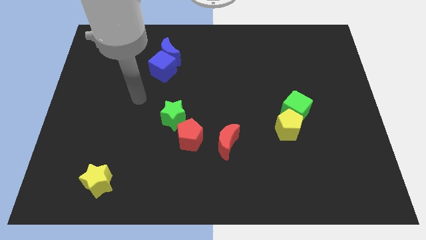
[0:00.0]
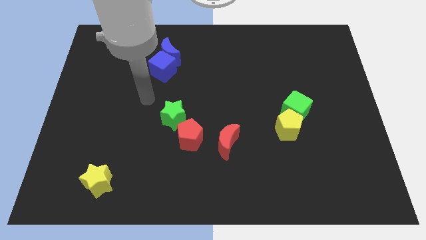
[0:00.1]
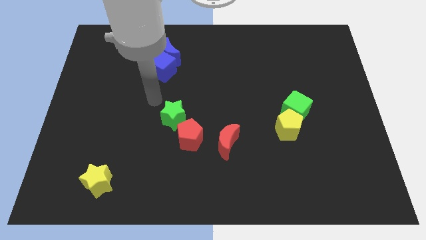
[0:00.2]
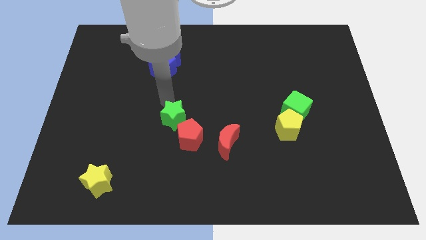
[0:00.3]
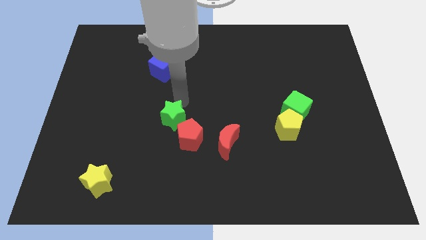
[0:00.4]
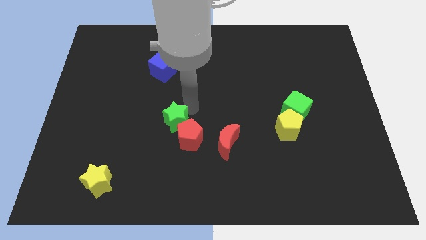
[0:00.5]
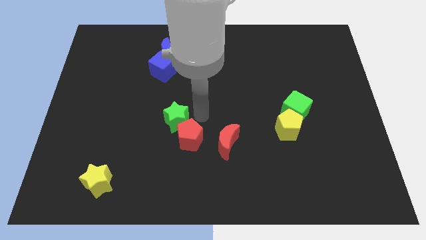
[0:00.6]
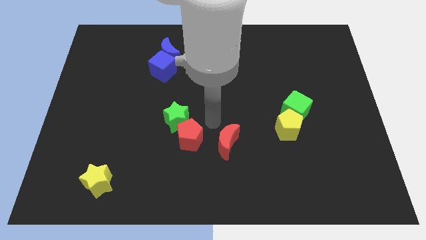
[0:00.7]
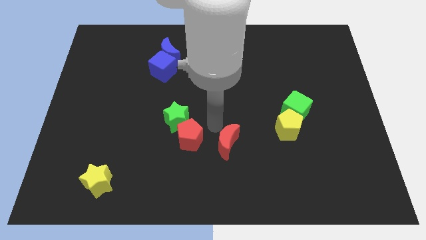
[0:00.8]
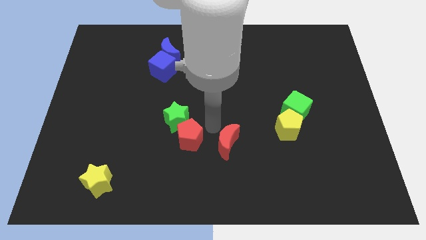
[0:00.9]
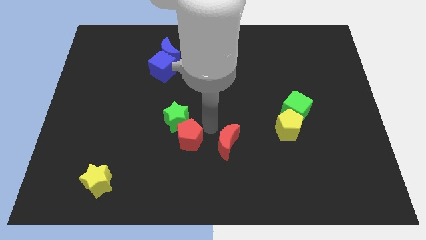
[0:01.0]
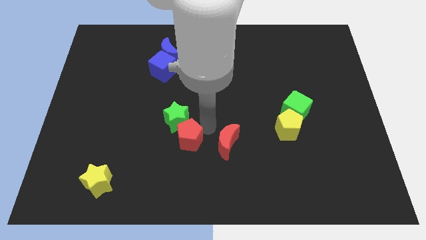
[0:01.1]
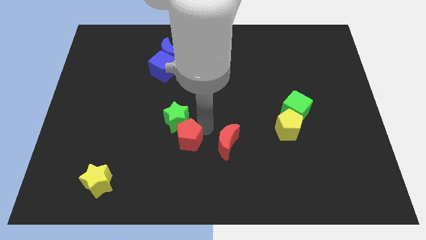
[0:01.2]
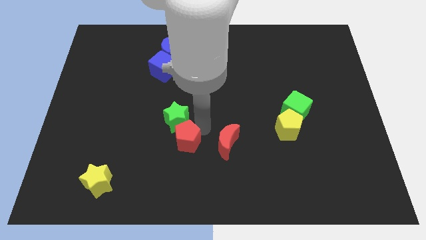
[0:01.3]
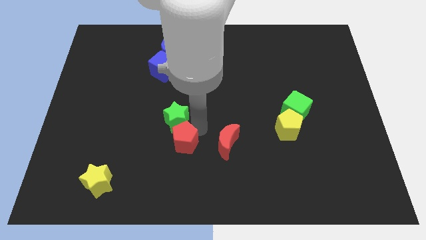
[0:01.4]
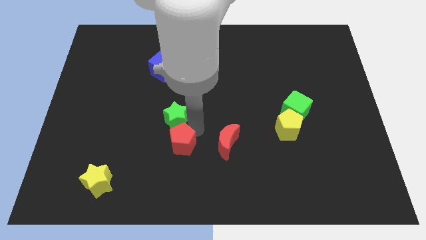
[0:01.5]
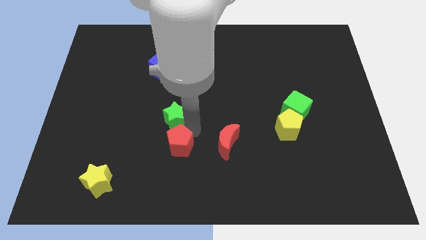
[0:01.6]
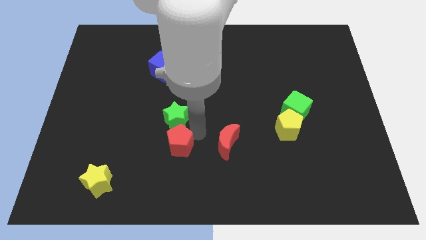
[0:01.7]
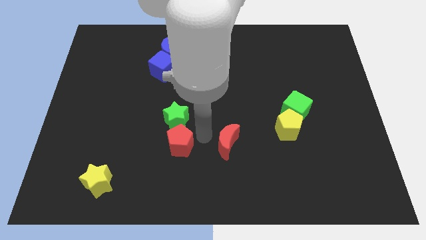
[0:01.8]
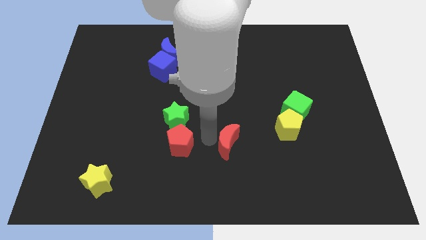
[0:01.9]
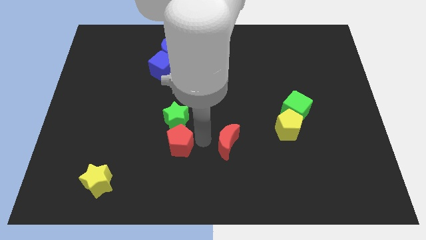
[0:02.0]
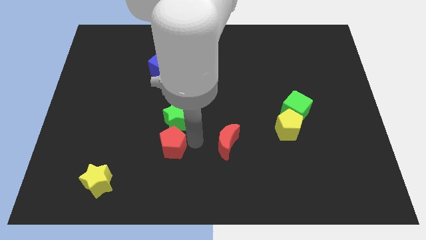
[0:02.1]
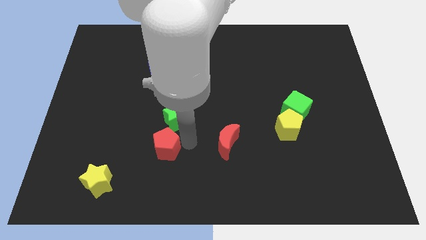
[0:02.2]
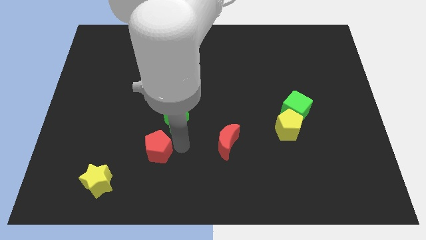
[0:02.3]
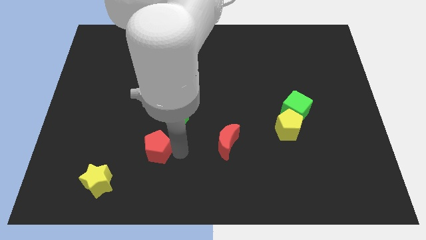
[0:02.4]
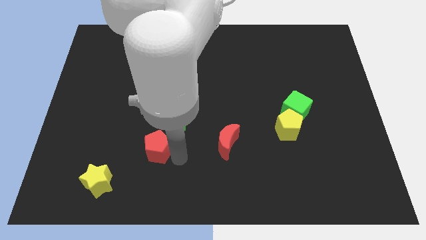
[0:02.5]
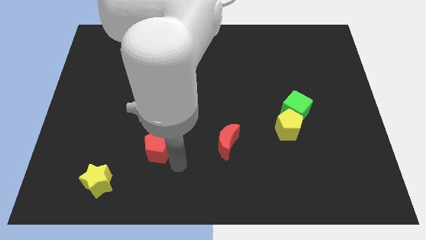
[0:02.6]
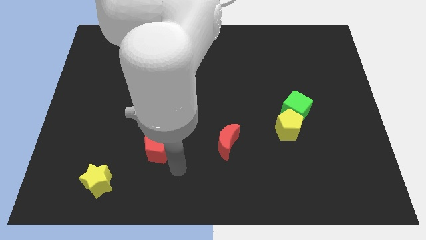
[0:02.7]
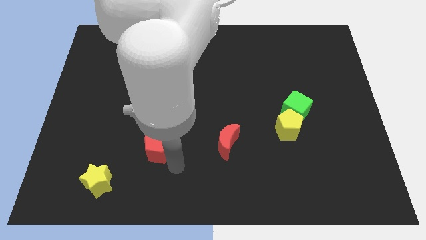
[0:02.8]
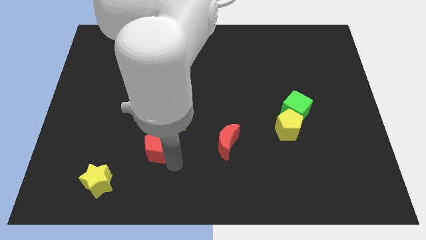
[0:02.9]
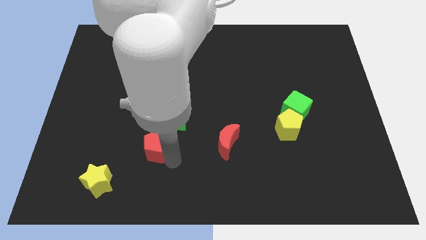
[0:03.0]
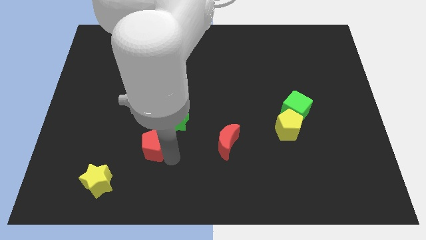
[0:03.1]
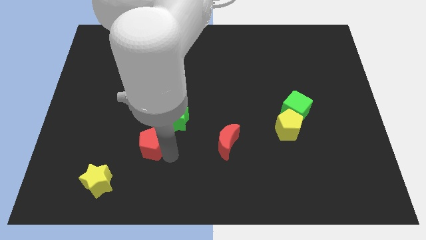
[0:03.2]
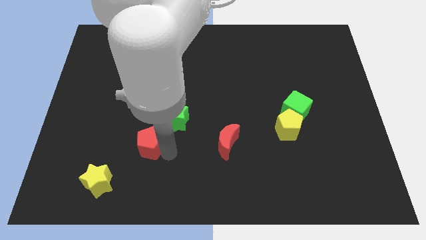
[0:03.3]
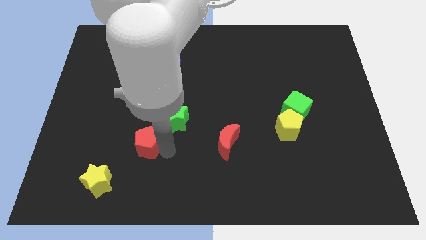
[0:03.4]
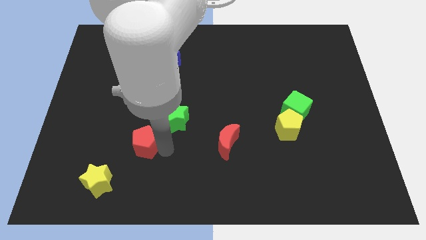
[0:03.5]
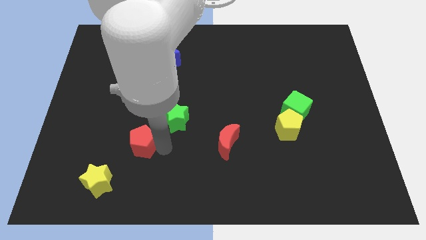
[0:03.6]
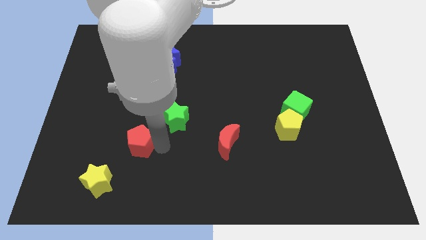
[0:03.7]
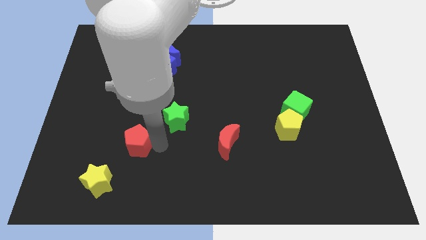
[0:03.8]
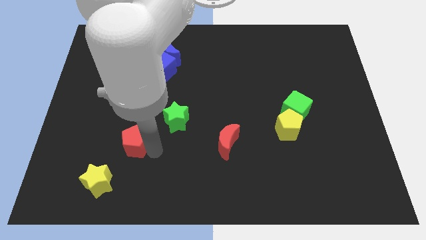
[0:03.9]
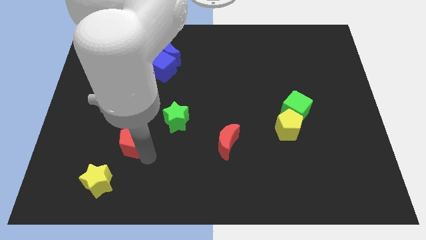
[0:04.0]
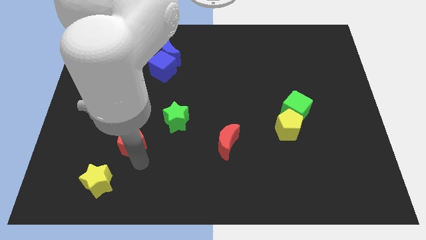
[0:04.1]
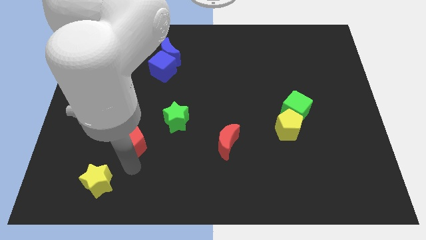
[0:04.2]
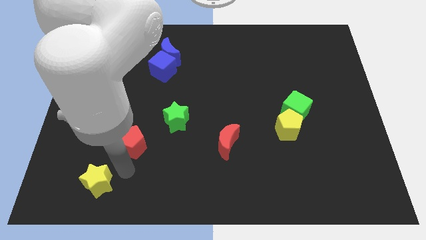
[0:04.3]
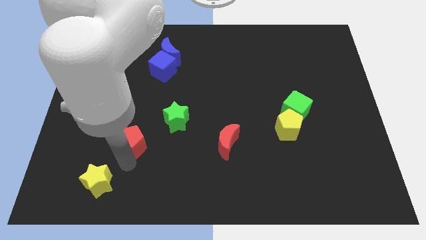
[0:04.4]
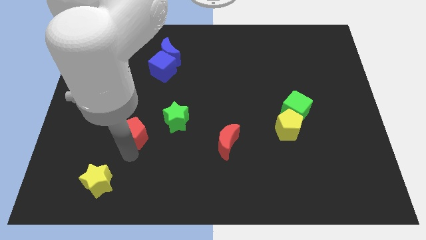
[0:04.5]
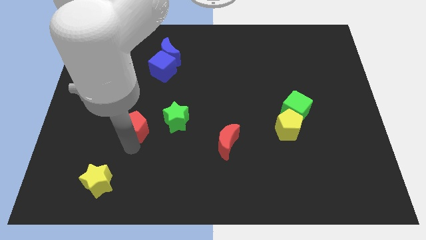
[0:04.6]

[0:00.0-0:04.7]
slide the red pentagon up and then left a little

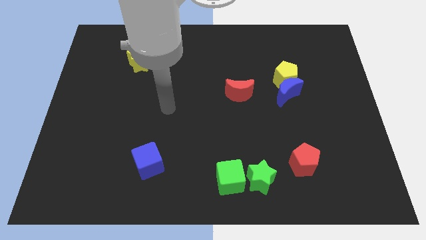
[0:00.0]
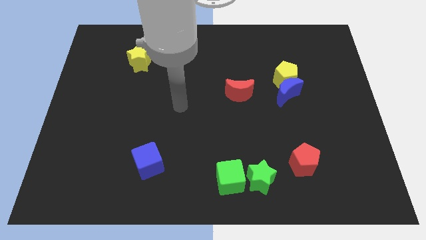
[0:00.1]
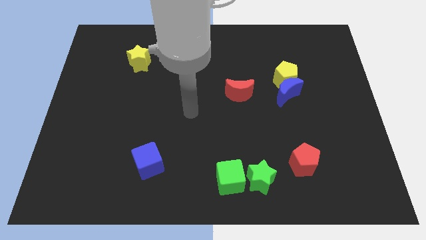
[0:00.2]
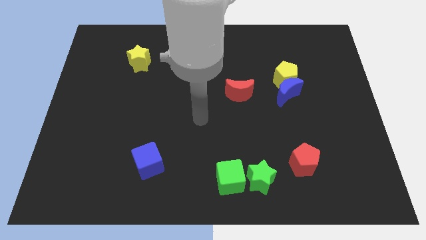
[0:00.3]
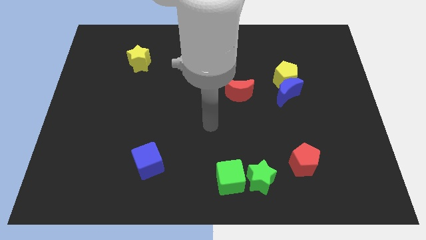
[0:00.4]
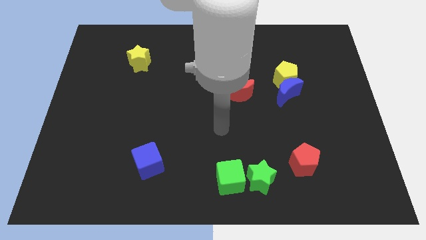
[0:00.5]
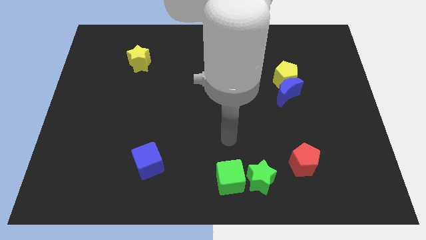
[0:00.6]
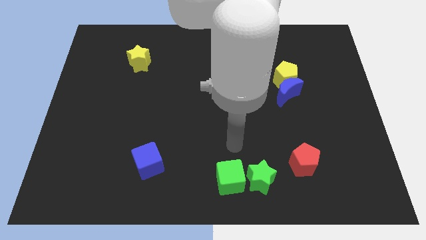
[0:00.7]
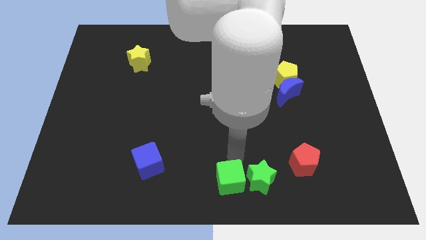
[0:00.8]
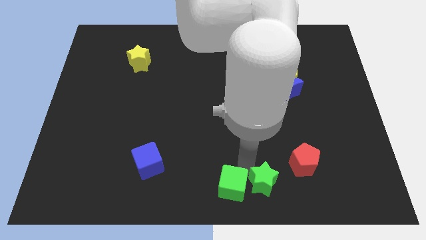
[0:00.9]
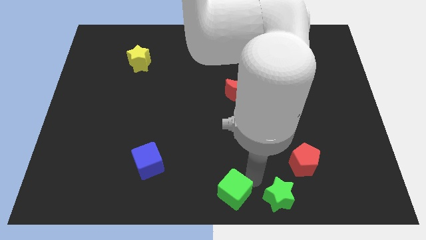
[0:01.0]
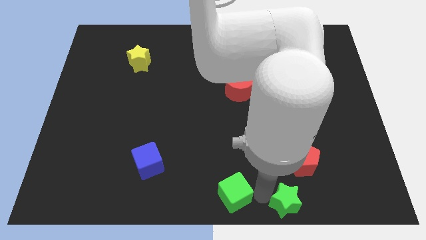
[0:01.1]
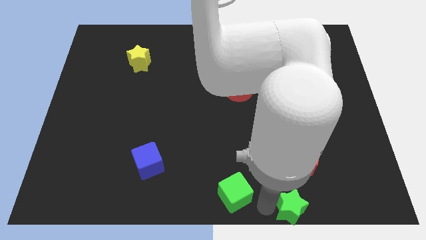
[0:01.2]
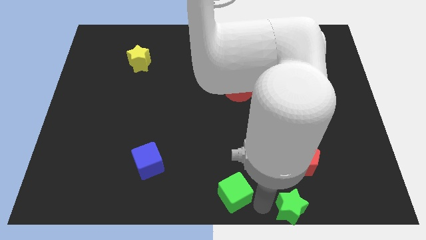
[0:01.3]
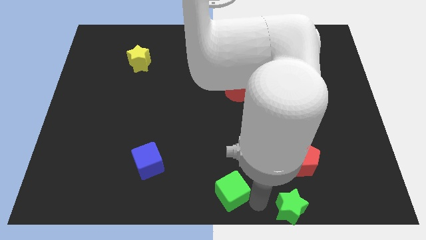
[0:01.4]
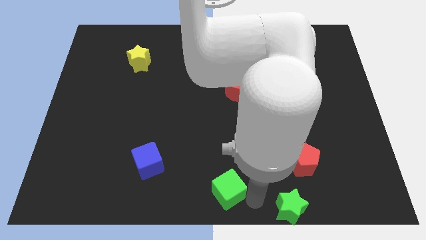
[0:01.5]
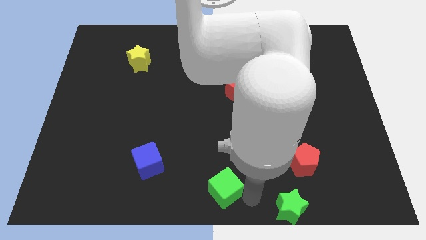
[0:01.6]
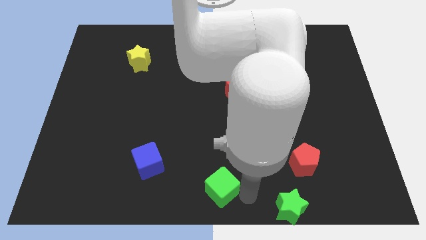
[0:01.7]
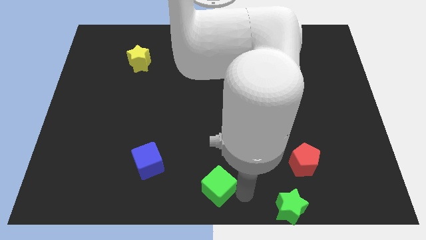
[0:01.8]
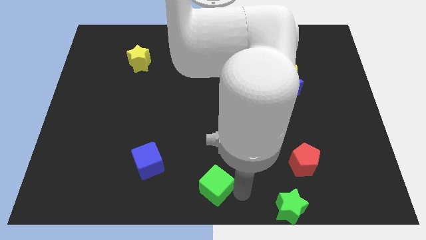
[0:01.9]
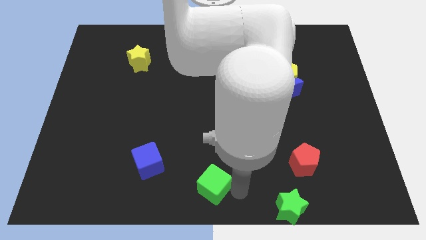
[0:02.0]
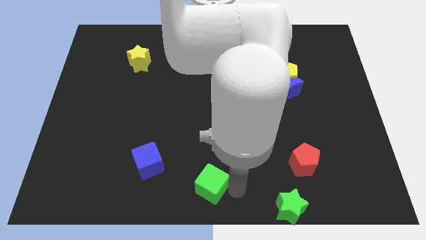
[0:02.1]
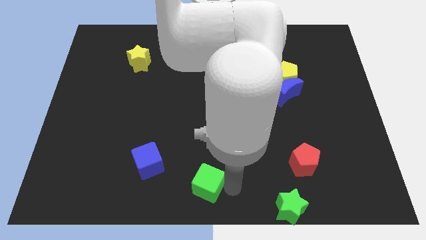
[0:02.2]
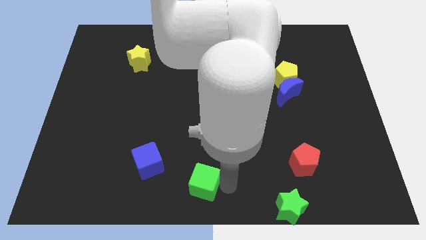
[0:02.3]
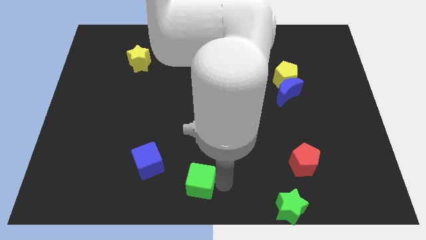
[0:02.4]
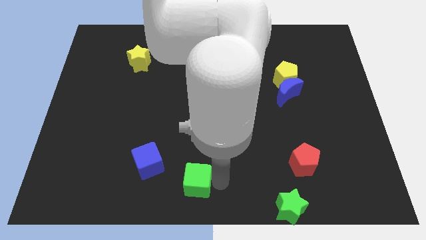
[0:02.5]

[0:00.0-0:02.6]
push the green cube a little to the left

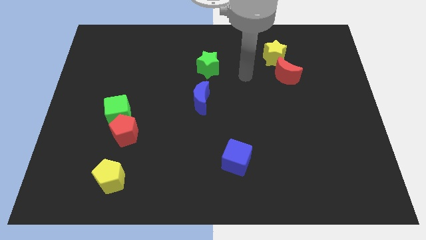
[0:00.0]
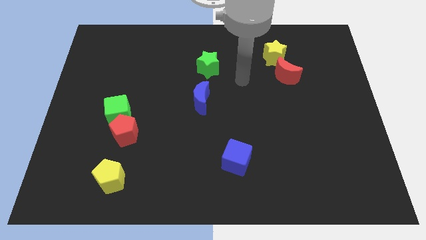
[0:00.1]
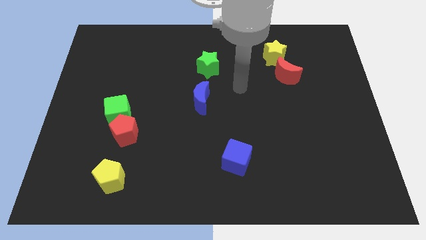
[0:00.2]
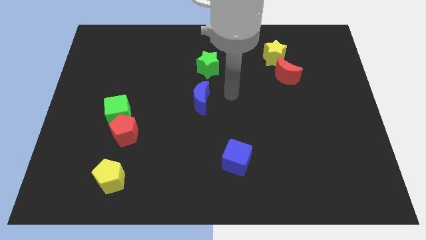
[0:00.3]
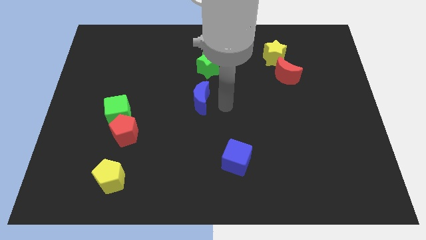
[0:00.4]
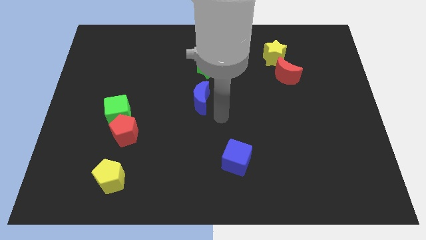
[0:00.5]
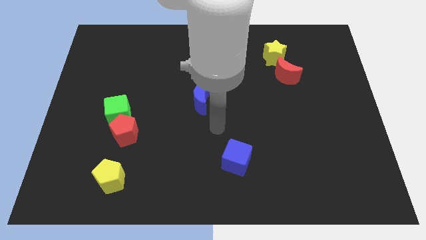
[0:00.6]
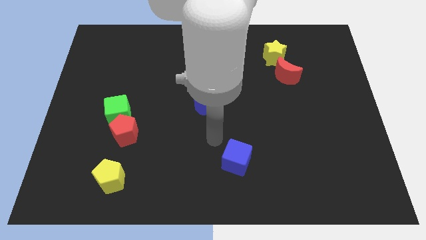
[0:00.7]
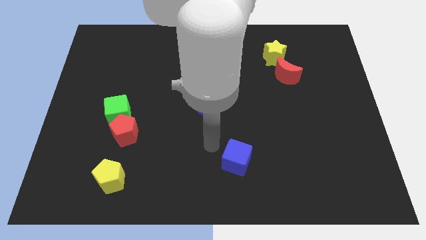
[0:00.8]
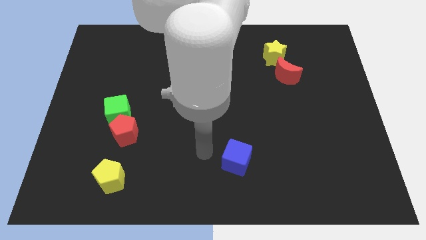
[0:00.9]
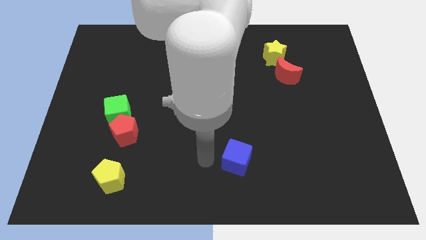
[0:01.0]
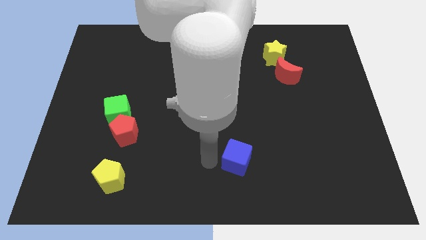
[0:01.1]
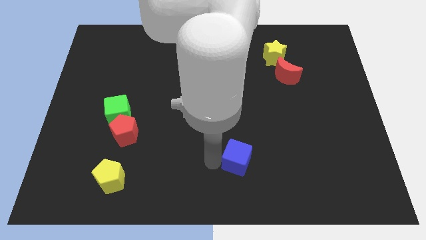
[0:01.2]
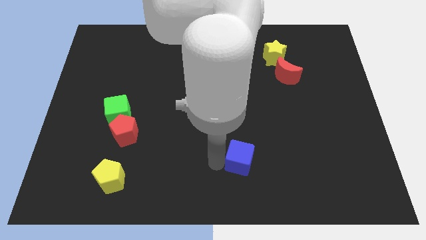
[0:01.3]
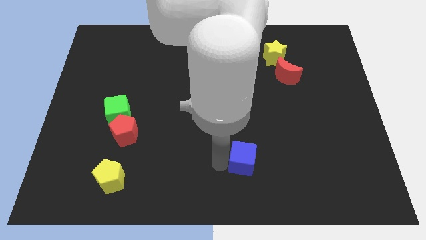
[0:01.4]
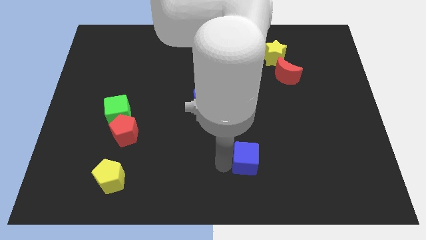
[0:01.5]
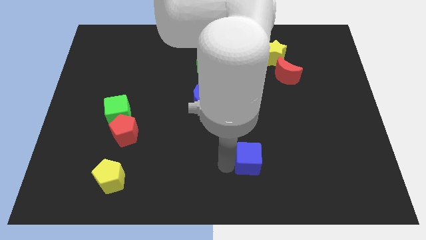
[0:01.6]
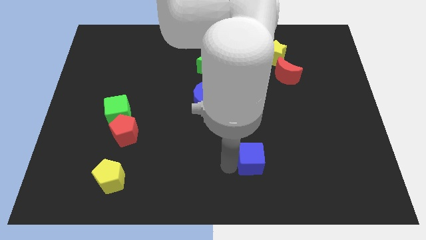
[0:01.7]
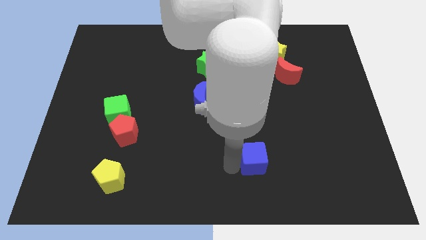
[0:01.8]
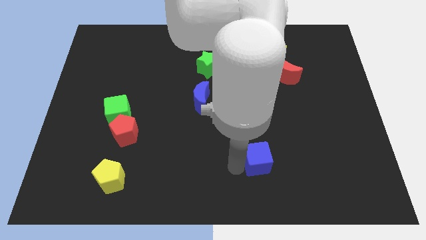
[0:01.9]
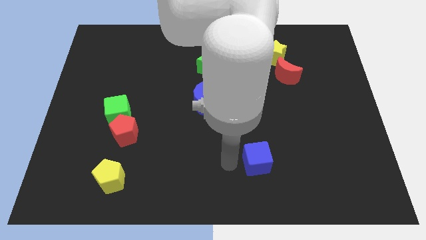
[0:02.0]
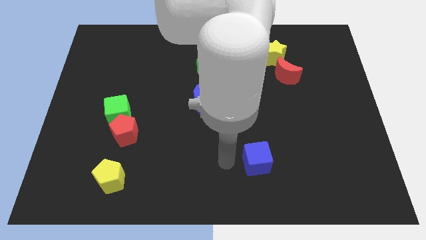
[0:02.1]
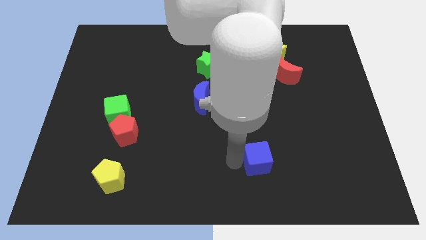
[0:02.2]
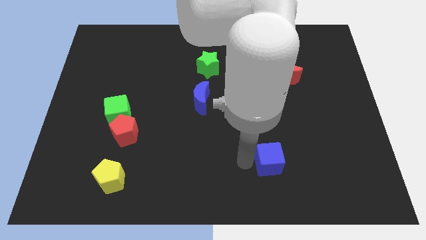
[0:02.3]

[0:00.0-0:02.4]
slightly slide the blue cube to the right
